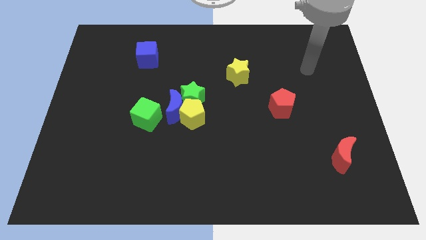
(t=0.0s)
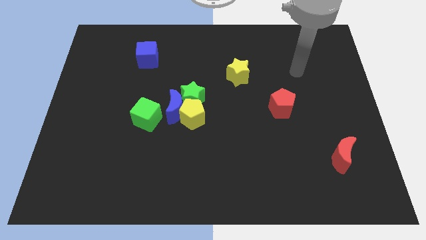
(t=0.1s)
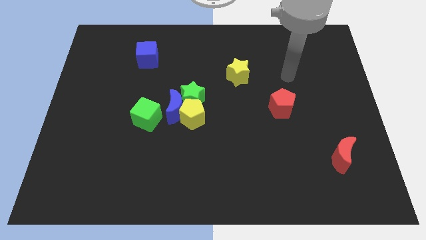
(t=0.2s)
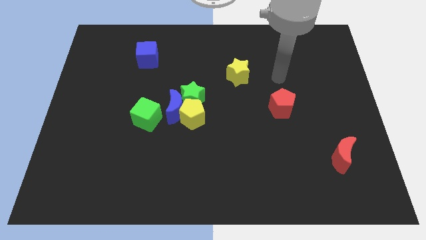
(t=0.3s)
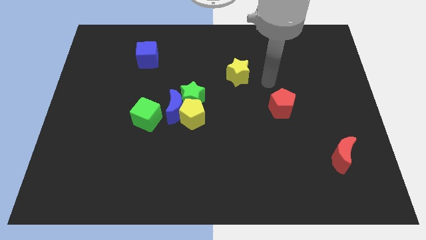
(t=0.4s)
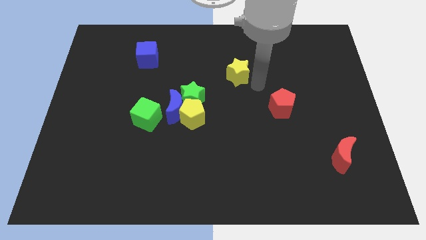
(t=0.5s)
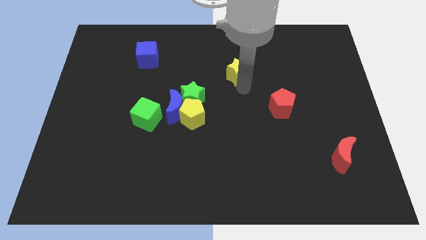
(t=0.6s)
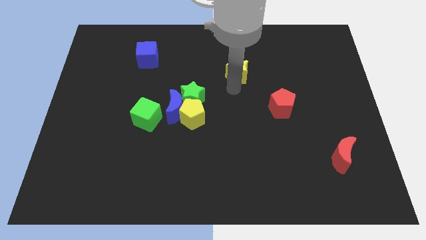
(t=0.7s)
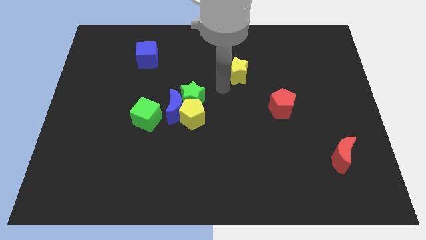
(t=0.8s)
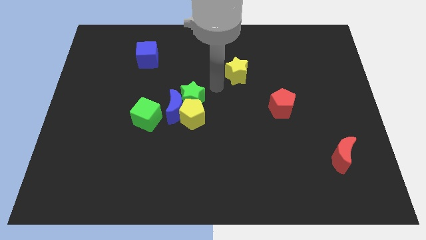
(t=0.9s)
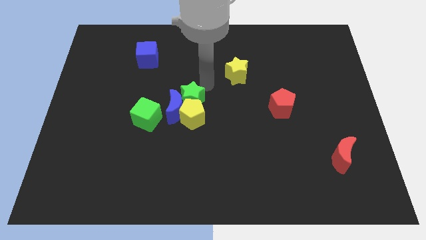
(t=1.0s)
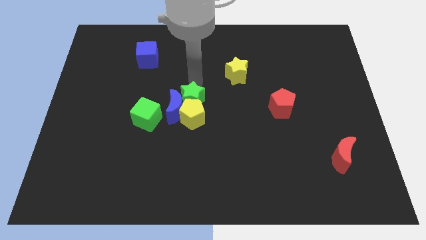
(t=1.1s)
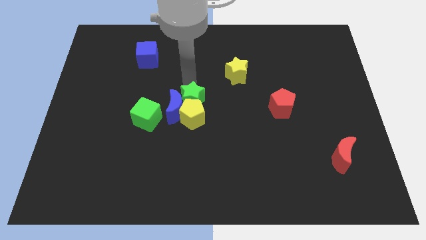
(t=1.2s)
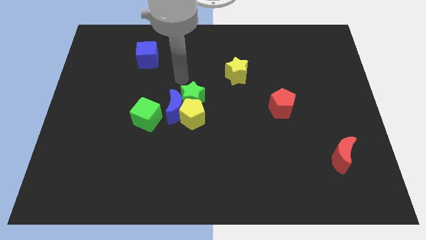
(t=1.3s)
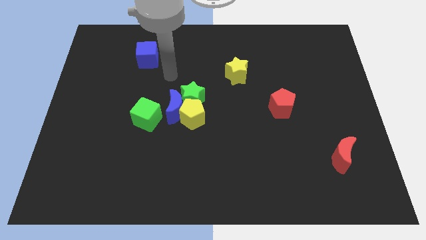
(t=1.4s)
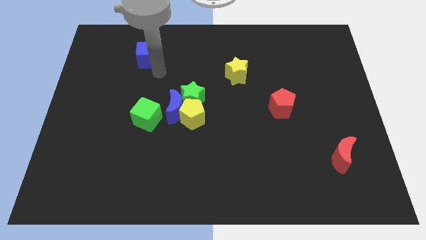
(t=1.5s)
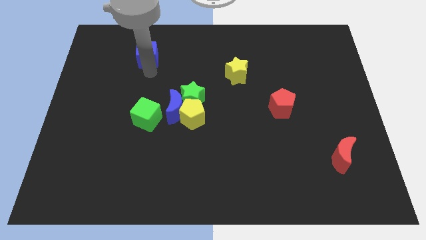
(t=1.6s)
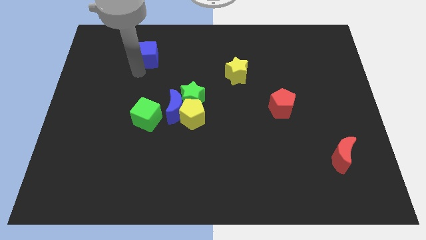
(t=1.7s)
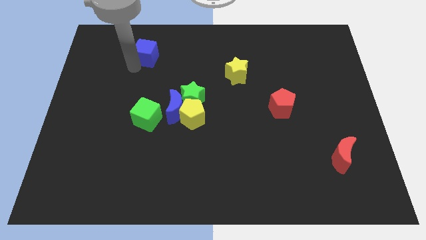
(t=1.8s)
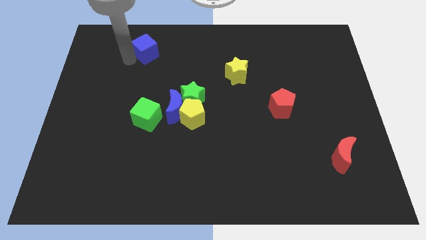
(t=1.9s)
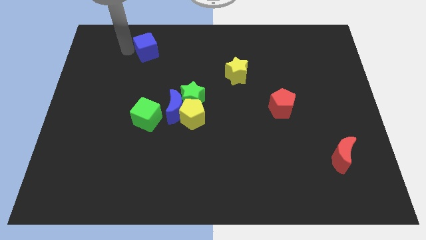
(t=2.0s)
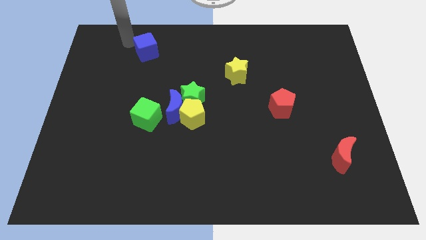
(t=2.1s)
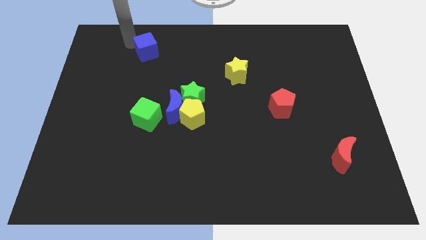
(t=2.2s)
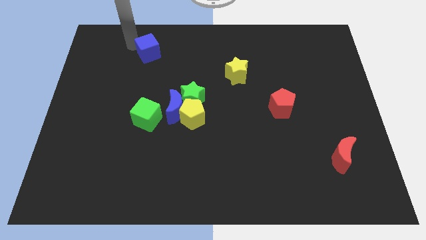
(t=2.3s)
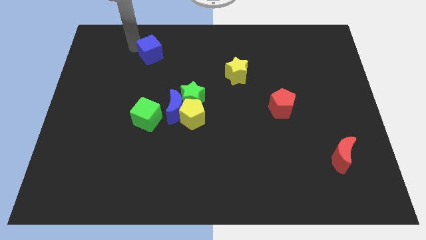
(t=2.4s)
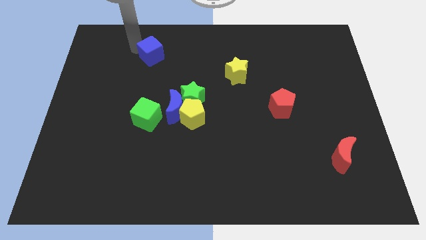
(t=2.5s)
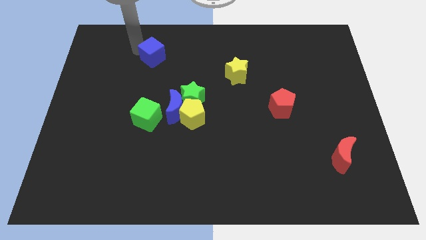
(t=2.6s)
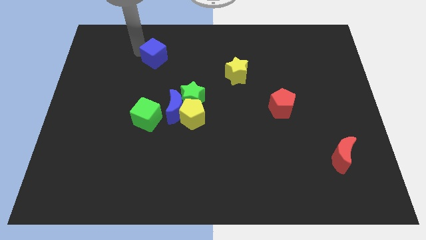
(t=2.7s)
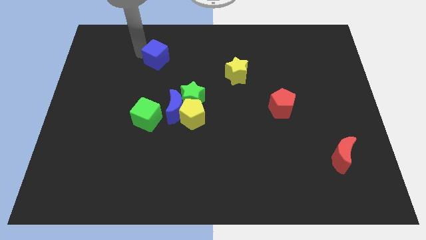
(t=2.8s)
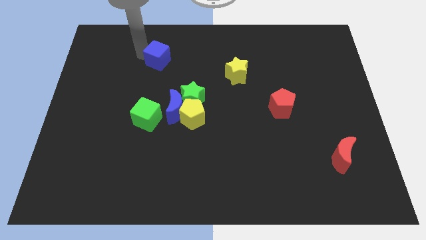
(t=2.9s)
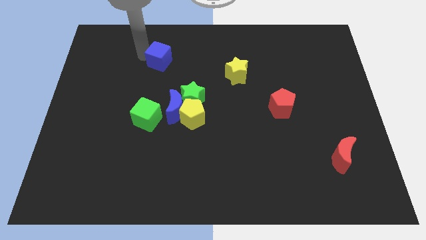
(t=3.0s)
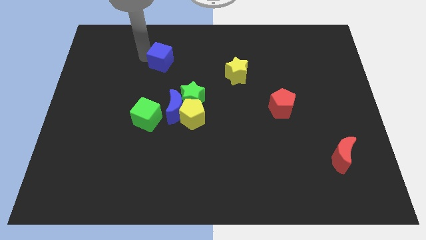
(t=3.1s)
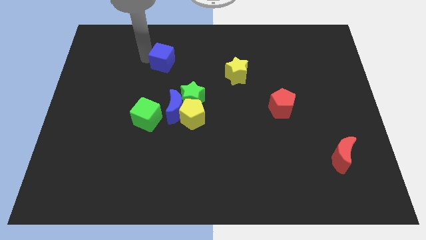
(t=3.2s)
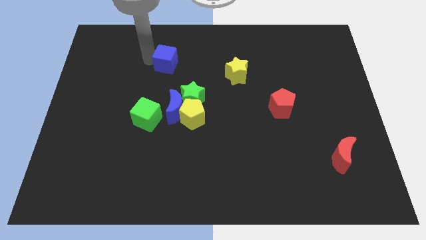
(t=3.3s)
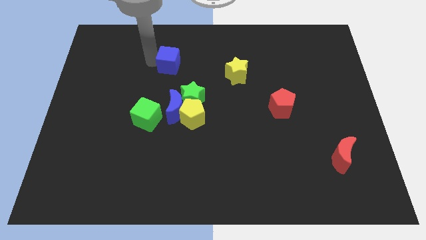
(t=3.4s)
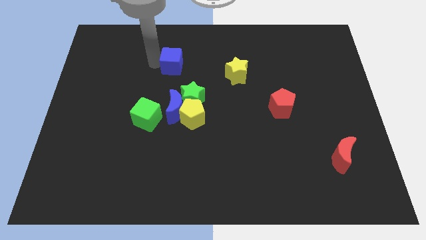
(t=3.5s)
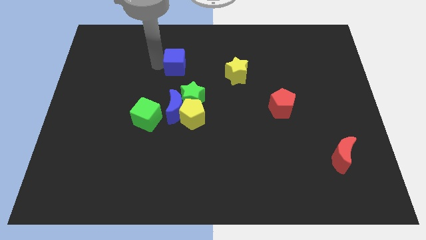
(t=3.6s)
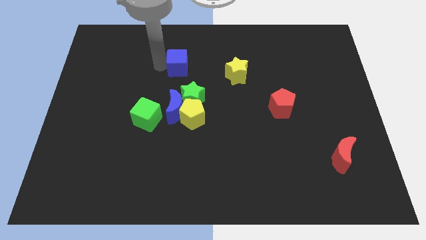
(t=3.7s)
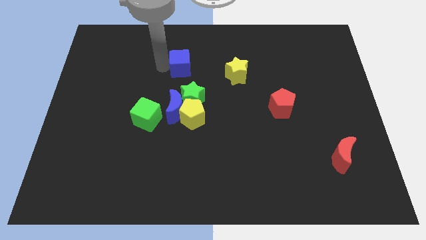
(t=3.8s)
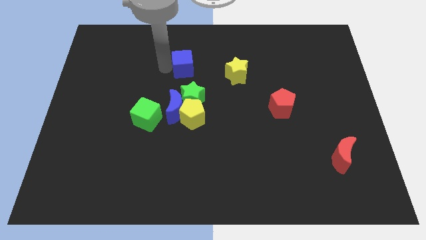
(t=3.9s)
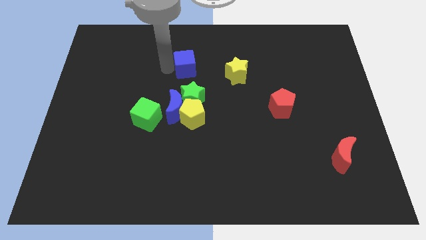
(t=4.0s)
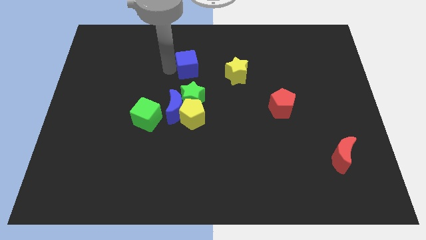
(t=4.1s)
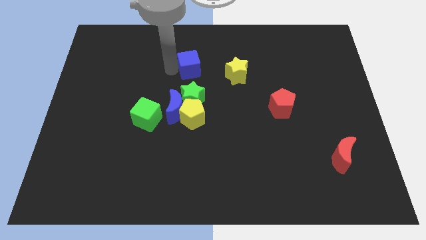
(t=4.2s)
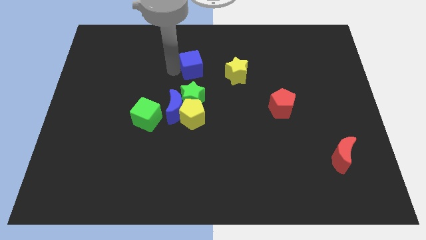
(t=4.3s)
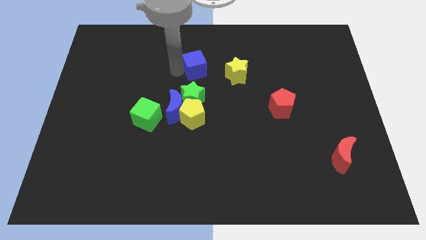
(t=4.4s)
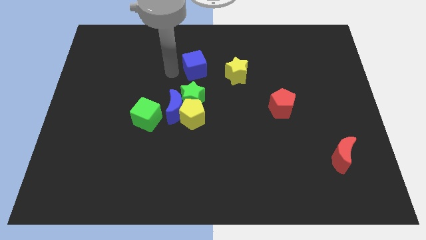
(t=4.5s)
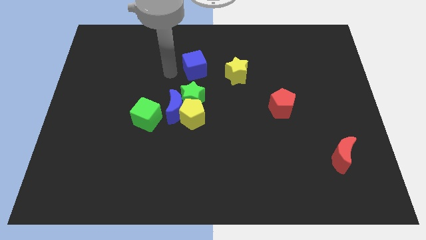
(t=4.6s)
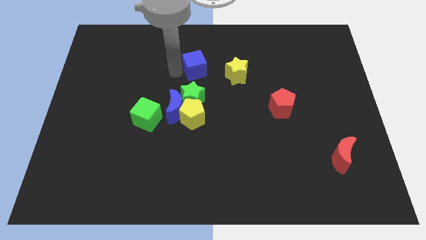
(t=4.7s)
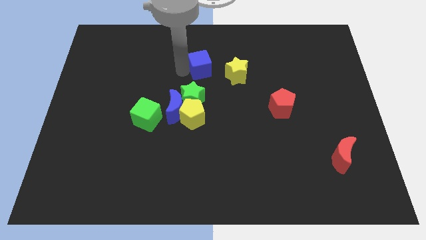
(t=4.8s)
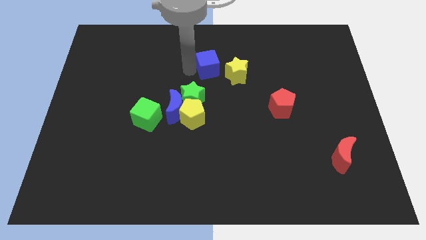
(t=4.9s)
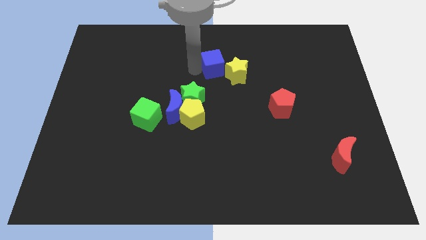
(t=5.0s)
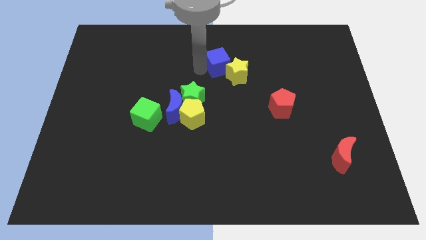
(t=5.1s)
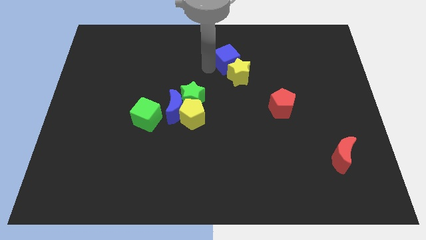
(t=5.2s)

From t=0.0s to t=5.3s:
move the blue cube to the right

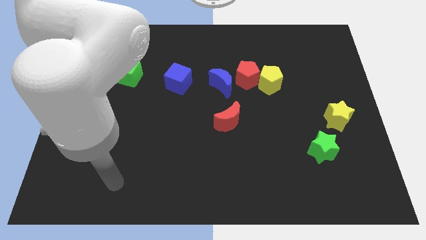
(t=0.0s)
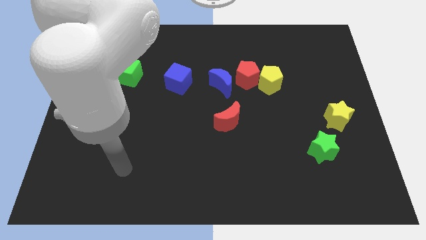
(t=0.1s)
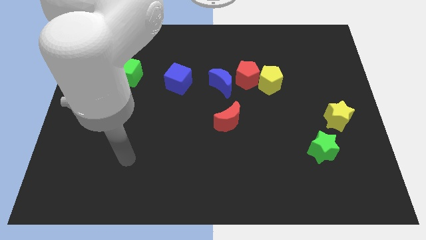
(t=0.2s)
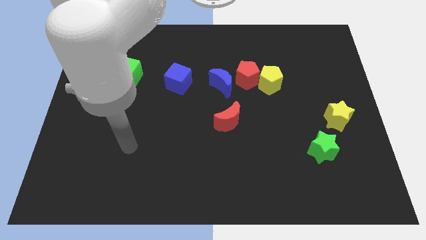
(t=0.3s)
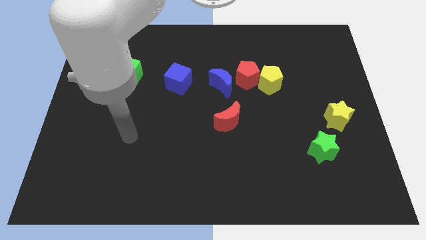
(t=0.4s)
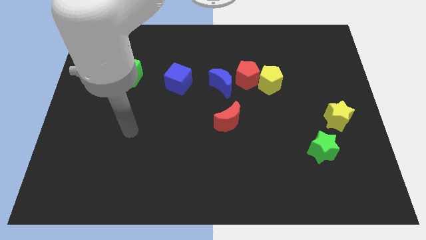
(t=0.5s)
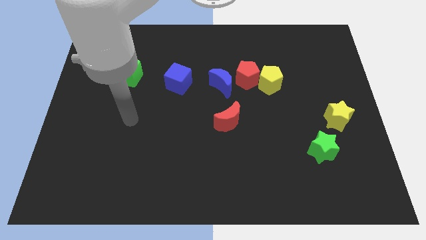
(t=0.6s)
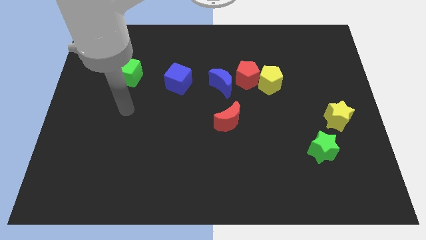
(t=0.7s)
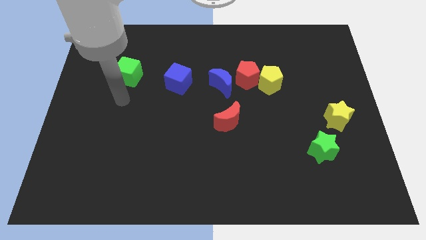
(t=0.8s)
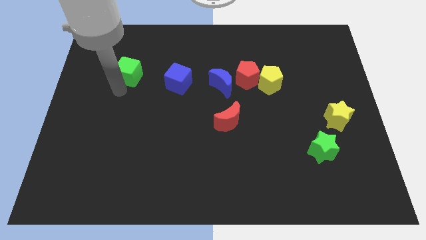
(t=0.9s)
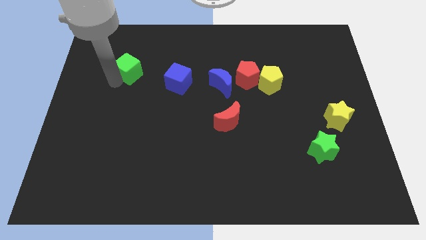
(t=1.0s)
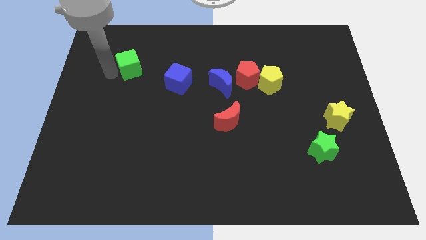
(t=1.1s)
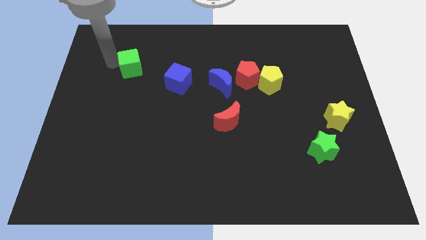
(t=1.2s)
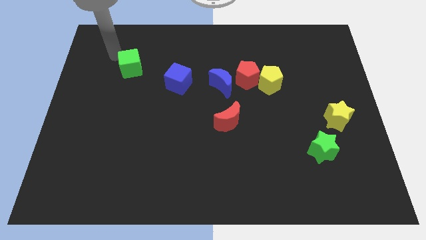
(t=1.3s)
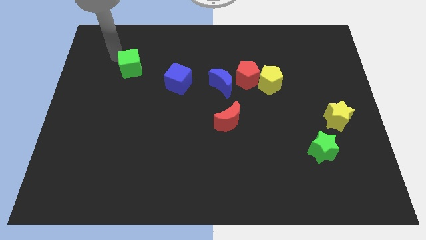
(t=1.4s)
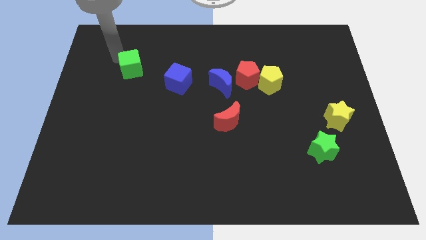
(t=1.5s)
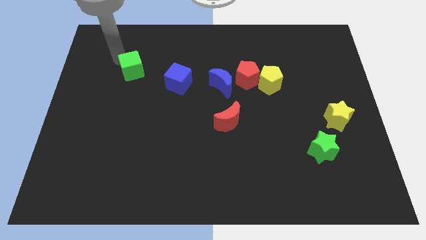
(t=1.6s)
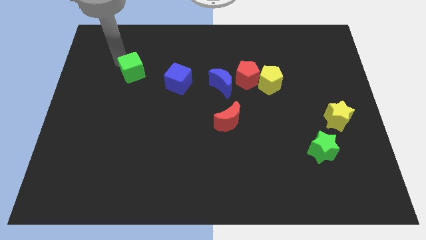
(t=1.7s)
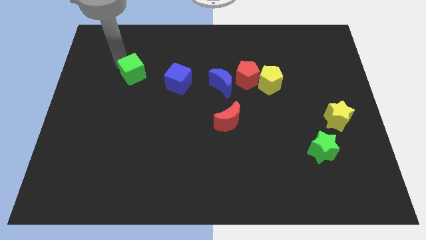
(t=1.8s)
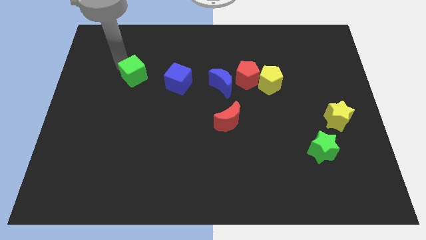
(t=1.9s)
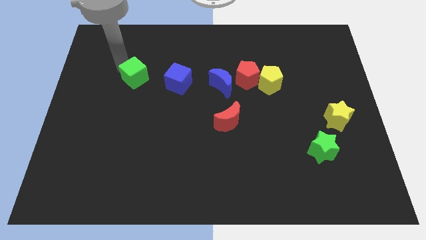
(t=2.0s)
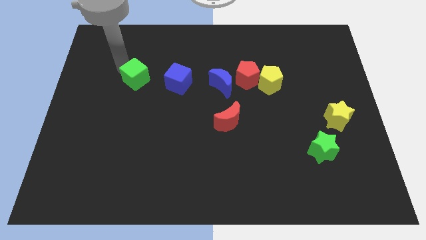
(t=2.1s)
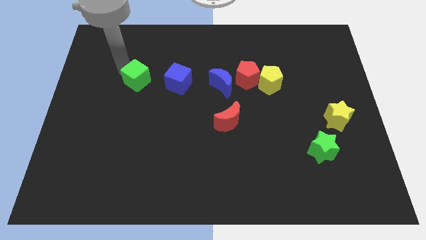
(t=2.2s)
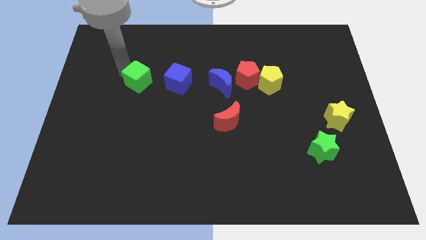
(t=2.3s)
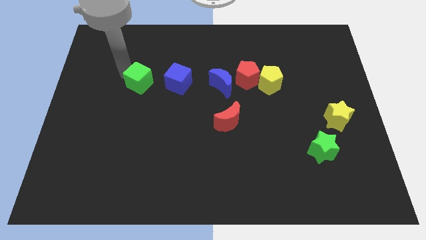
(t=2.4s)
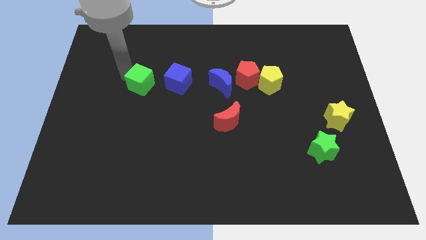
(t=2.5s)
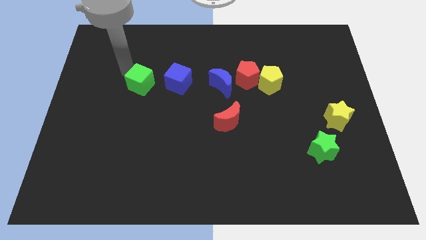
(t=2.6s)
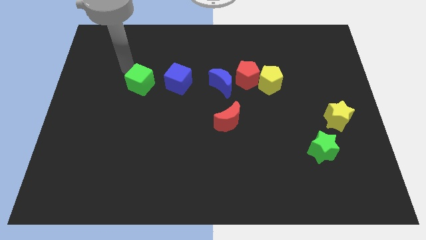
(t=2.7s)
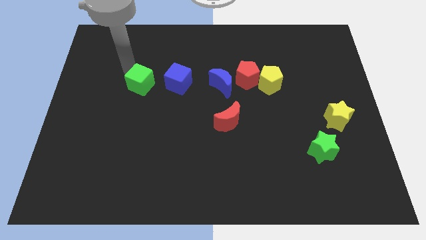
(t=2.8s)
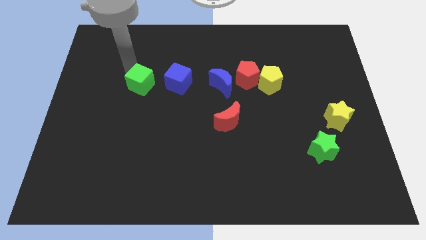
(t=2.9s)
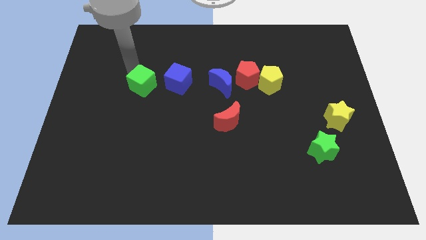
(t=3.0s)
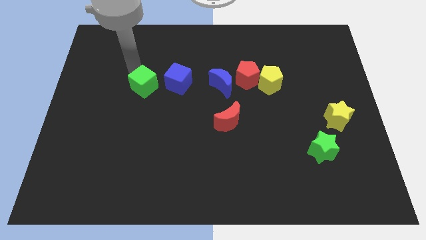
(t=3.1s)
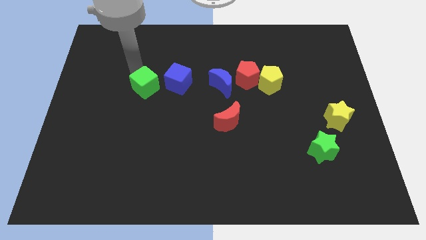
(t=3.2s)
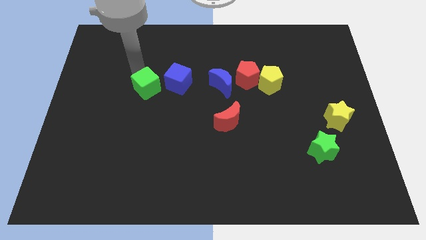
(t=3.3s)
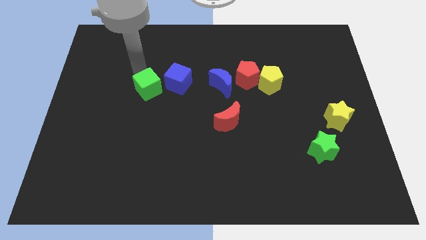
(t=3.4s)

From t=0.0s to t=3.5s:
move the green cube diagonally down and to the right slightly
